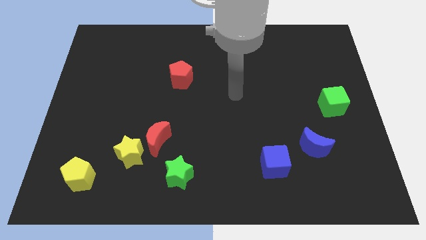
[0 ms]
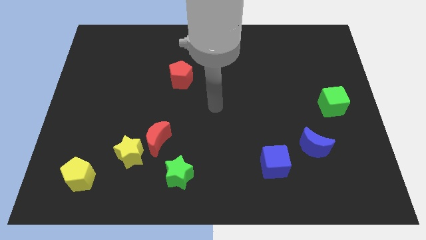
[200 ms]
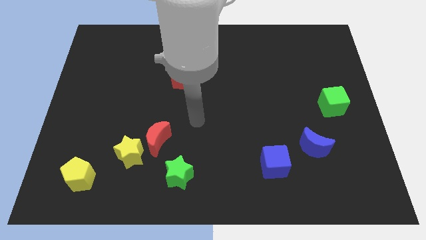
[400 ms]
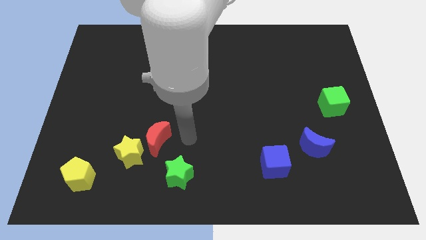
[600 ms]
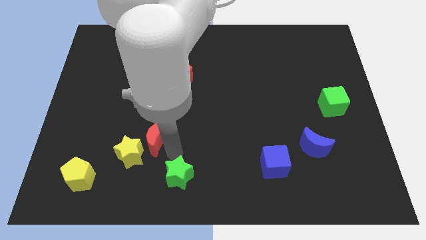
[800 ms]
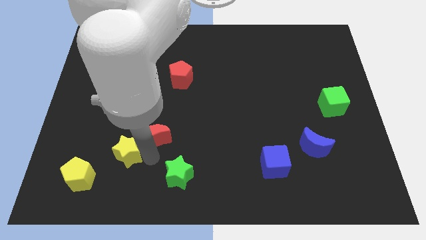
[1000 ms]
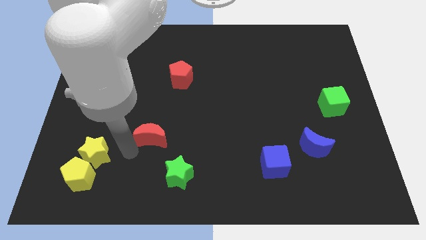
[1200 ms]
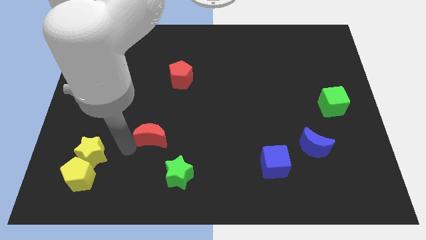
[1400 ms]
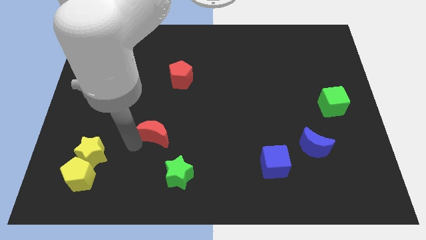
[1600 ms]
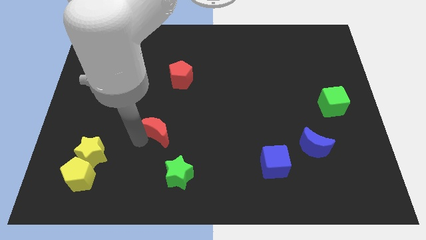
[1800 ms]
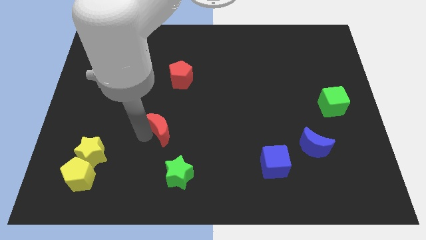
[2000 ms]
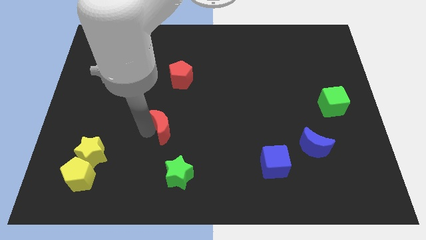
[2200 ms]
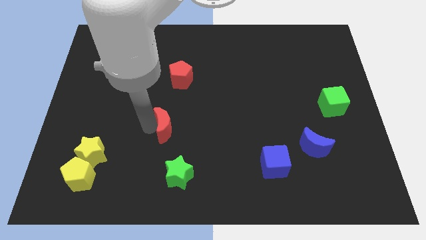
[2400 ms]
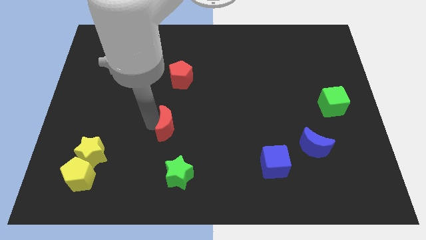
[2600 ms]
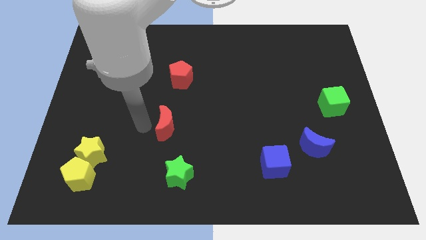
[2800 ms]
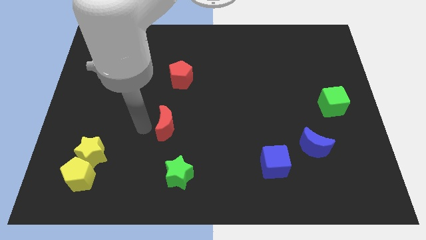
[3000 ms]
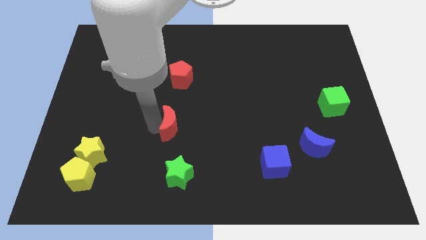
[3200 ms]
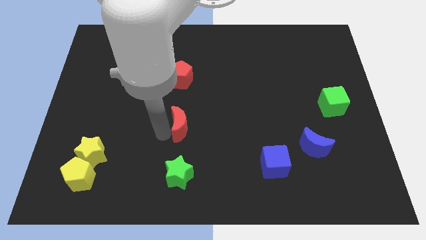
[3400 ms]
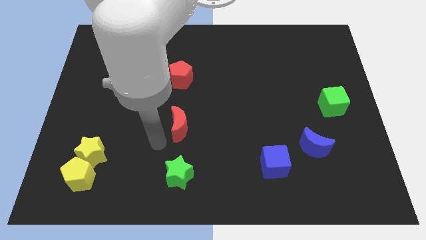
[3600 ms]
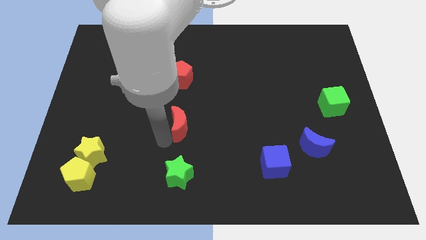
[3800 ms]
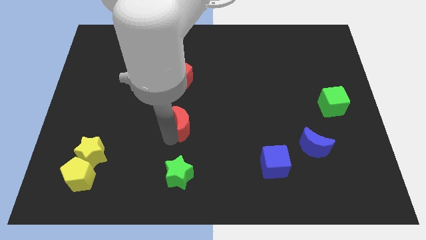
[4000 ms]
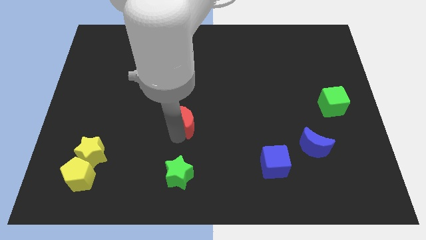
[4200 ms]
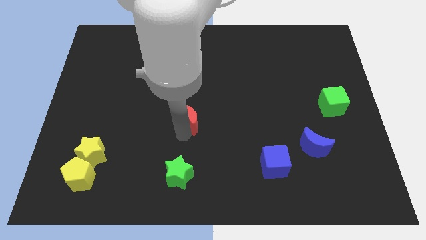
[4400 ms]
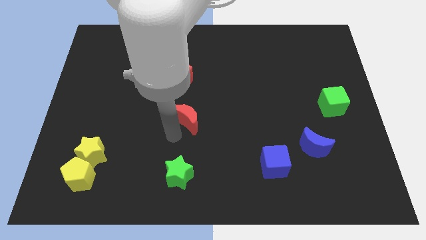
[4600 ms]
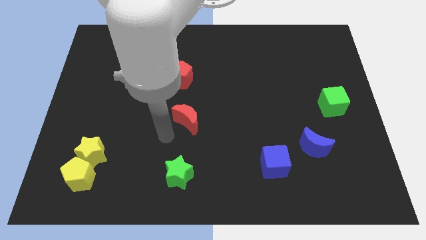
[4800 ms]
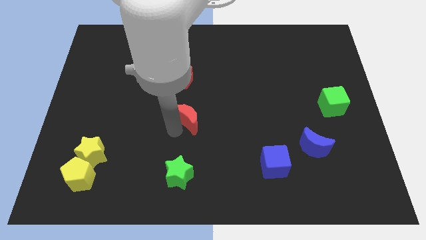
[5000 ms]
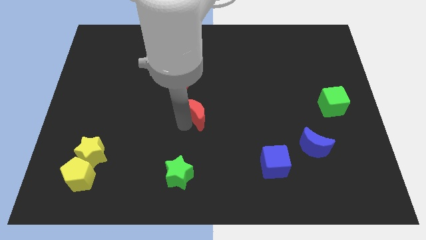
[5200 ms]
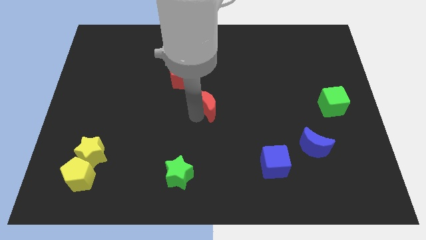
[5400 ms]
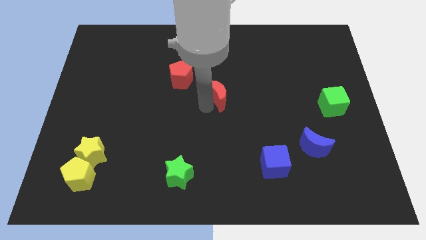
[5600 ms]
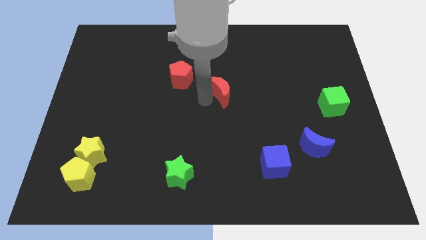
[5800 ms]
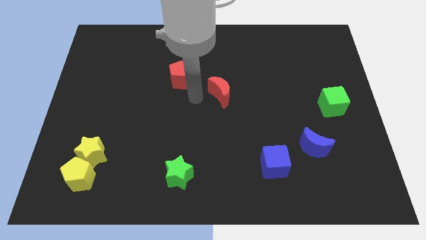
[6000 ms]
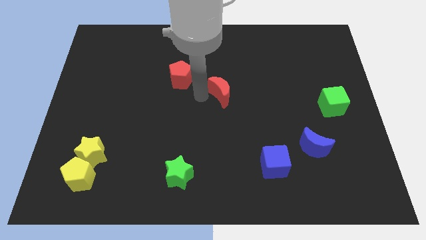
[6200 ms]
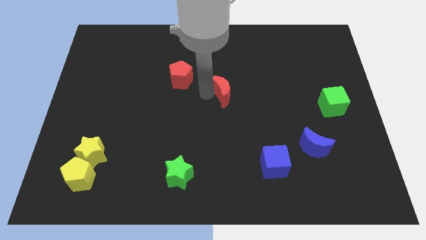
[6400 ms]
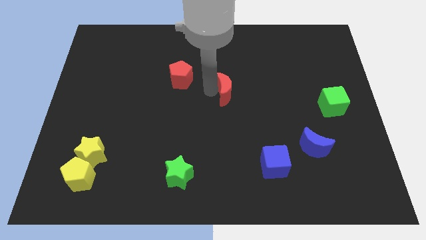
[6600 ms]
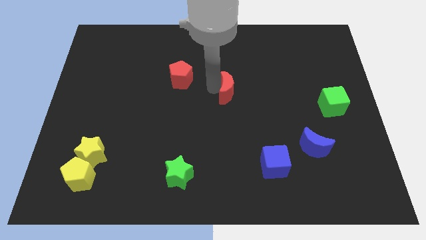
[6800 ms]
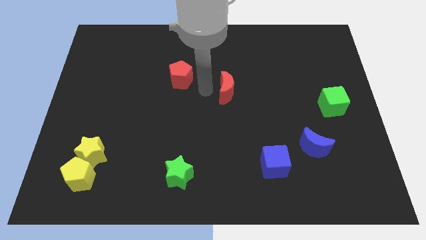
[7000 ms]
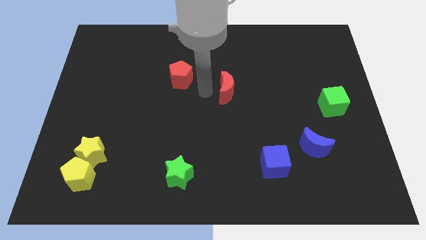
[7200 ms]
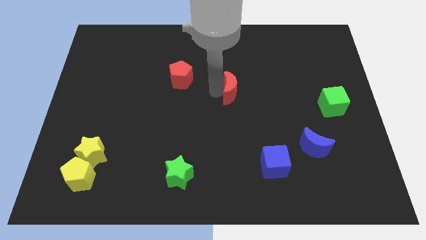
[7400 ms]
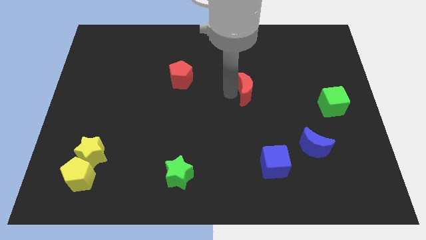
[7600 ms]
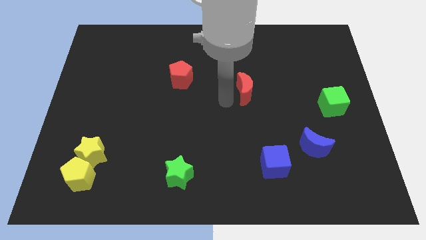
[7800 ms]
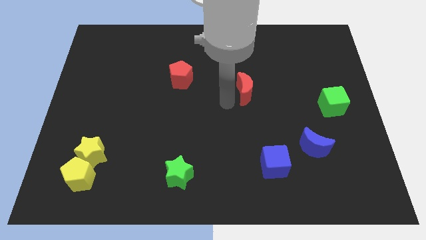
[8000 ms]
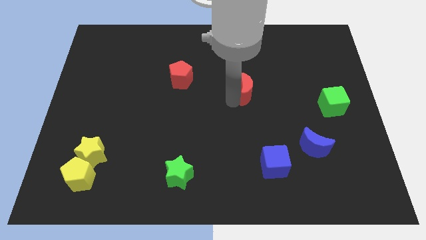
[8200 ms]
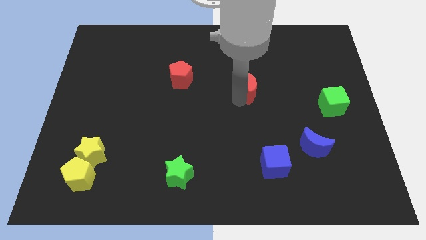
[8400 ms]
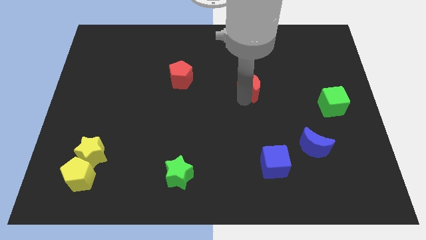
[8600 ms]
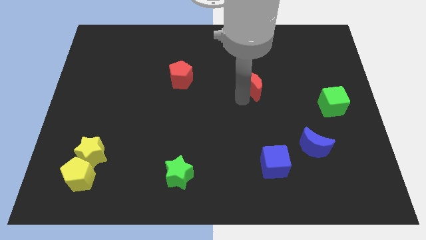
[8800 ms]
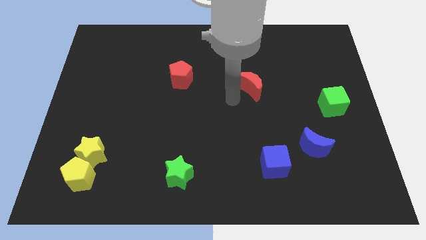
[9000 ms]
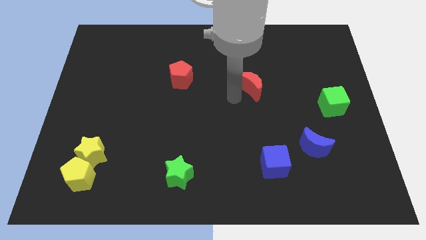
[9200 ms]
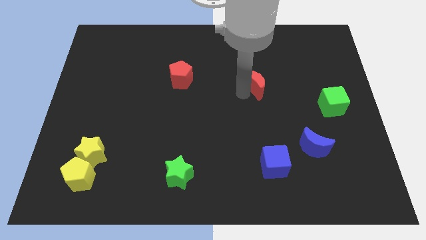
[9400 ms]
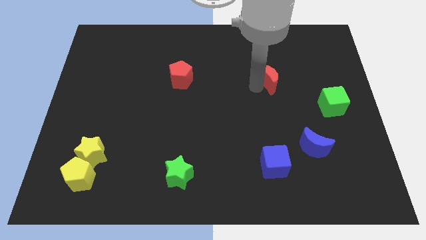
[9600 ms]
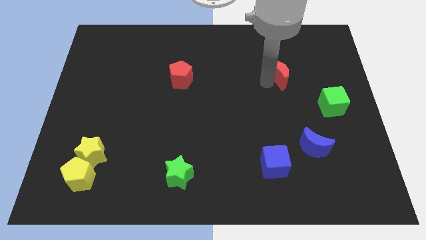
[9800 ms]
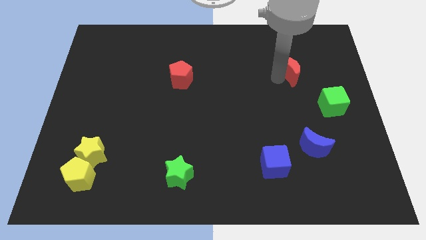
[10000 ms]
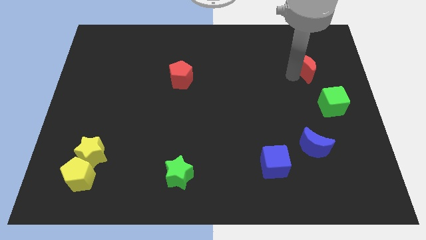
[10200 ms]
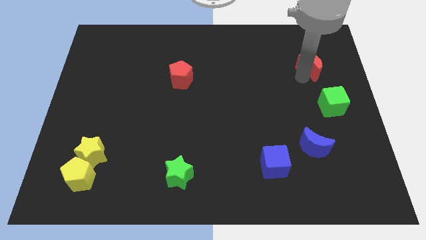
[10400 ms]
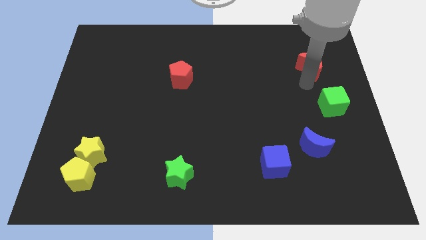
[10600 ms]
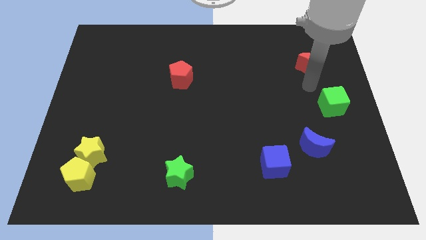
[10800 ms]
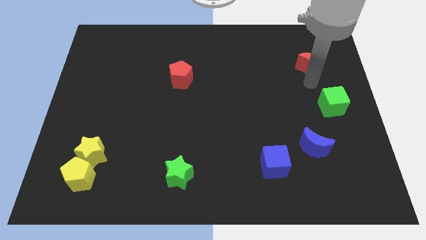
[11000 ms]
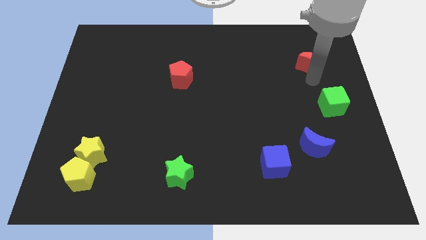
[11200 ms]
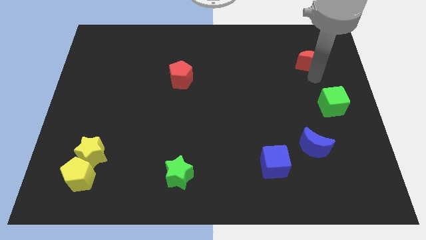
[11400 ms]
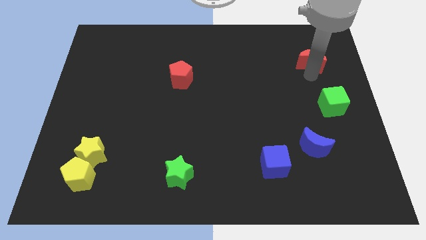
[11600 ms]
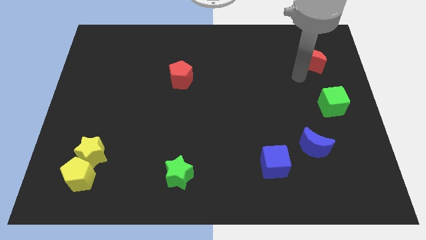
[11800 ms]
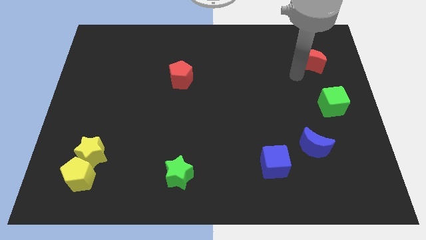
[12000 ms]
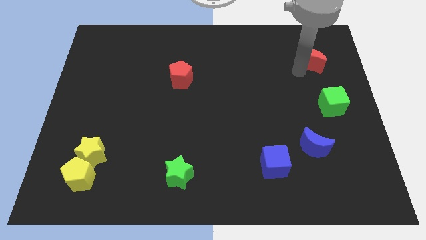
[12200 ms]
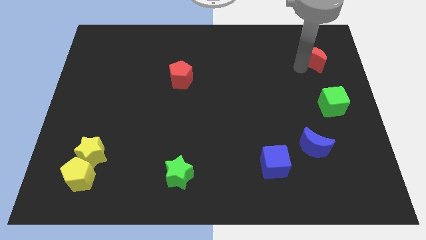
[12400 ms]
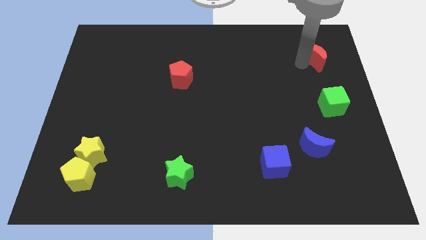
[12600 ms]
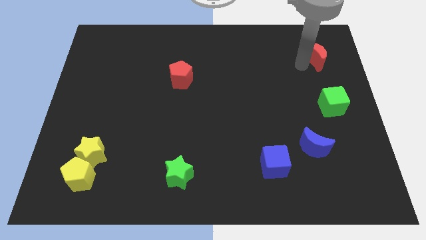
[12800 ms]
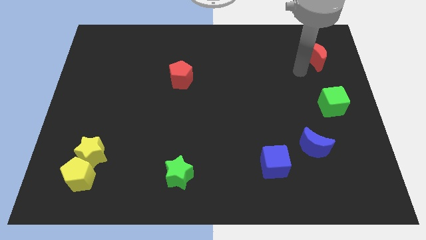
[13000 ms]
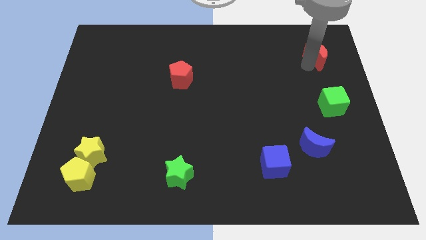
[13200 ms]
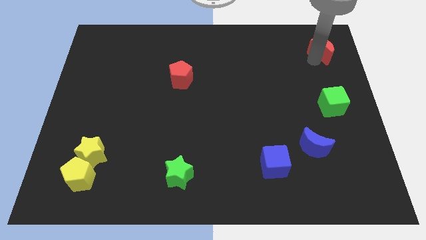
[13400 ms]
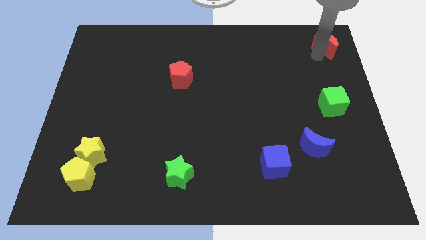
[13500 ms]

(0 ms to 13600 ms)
slide the red moon to the top right corner
